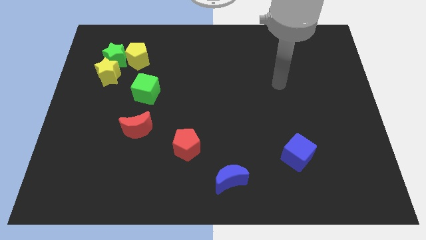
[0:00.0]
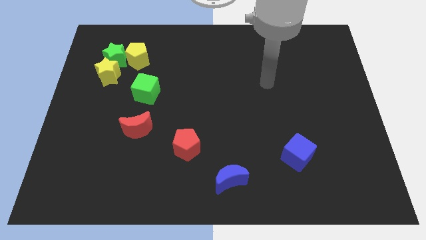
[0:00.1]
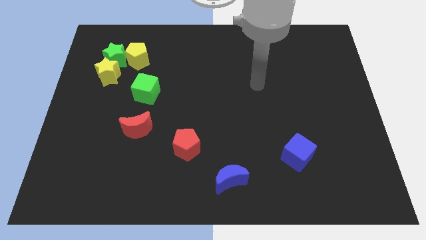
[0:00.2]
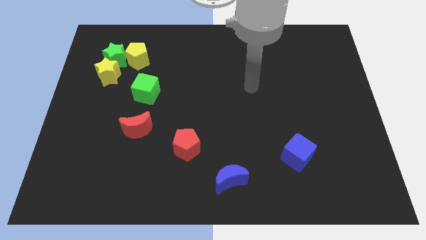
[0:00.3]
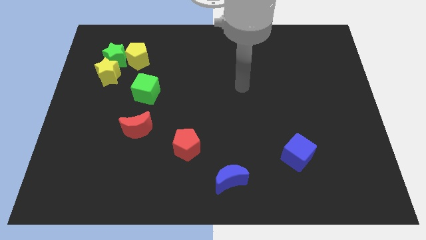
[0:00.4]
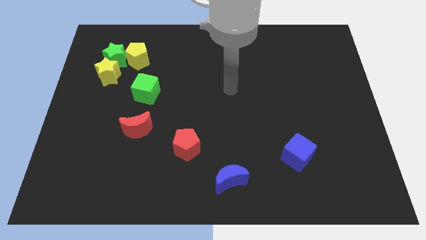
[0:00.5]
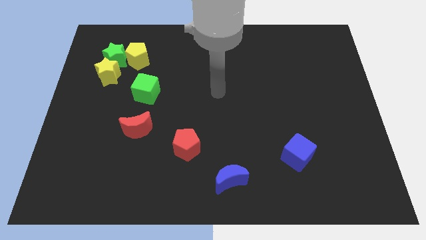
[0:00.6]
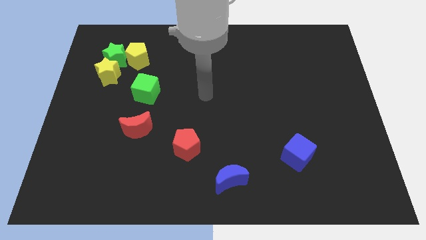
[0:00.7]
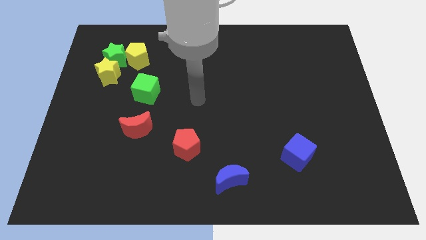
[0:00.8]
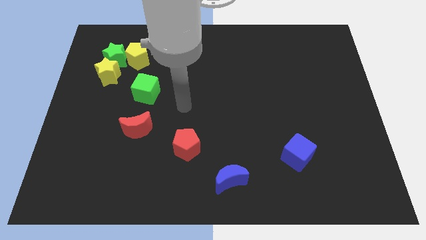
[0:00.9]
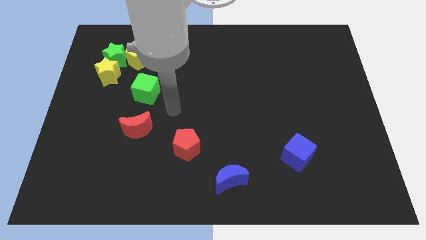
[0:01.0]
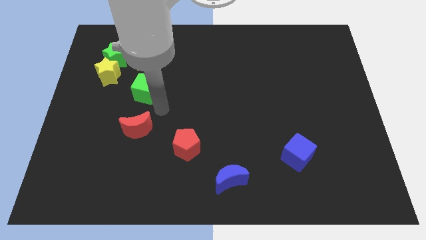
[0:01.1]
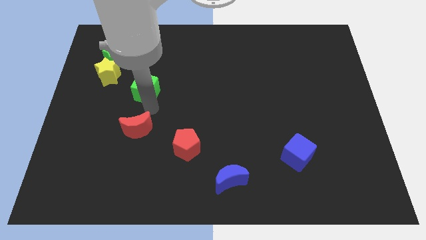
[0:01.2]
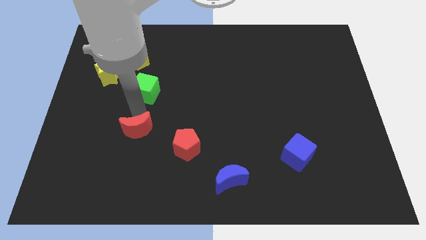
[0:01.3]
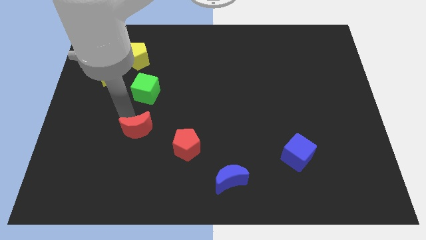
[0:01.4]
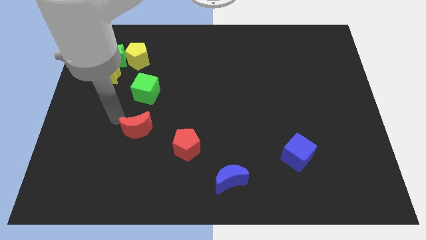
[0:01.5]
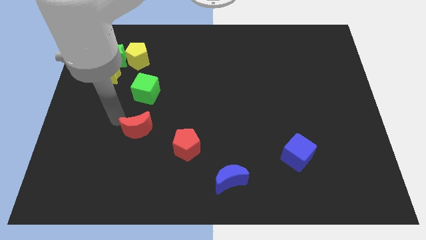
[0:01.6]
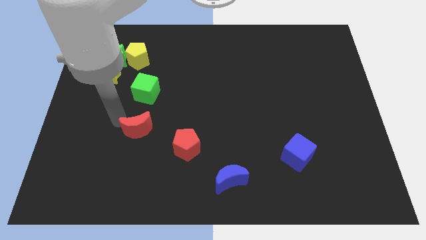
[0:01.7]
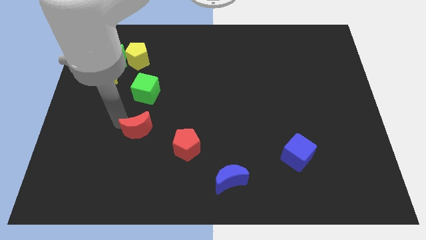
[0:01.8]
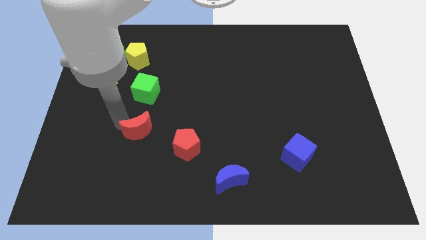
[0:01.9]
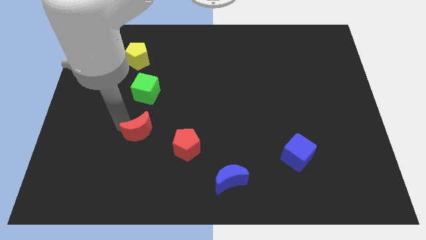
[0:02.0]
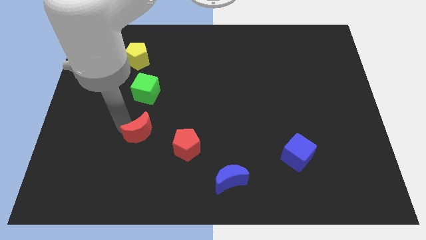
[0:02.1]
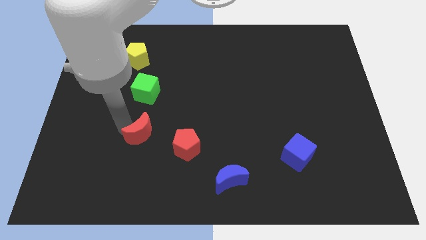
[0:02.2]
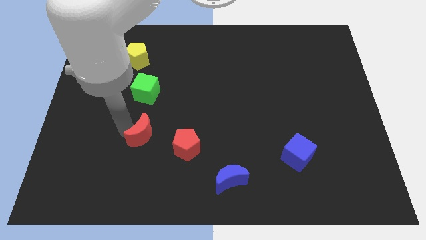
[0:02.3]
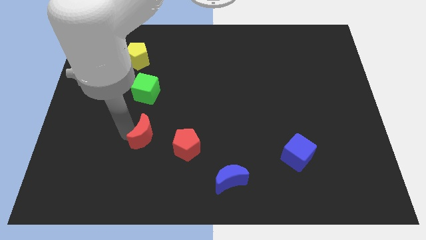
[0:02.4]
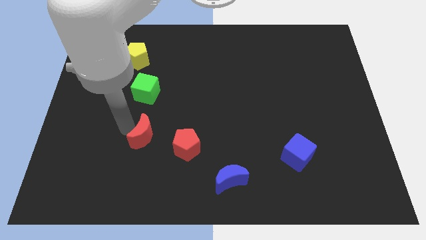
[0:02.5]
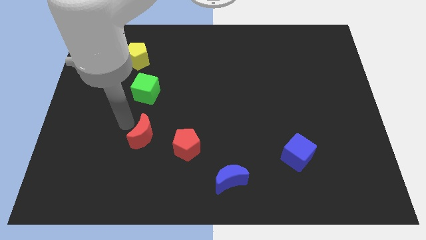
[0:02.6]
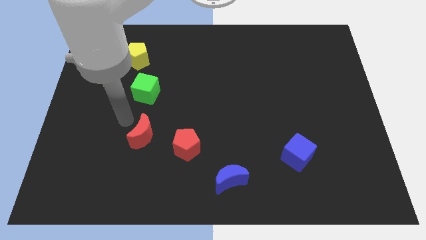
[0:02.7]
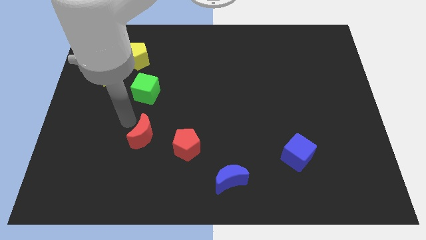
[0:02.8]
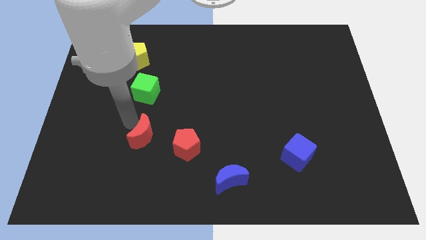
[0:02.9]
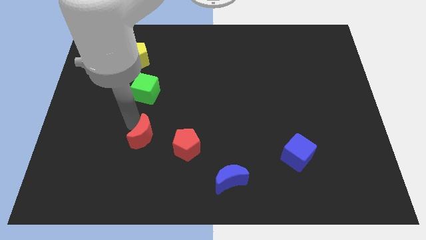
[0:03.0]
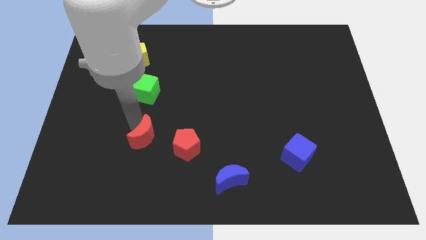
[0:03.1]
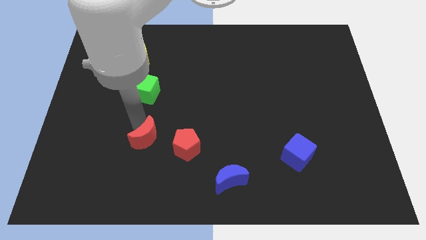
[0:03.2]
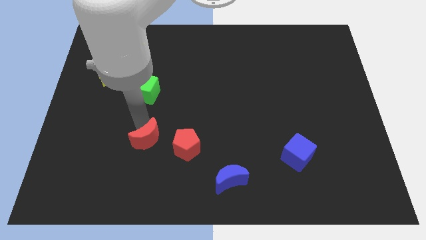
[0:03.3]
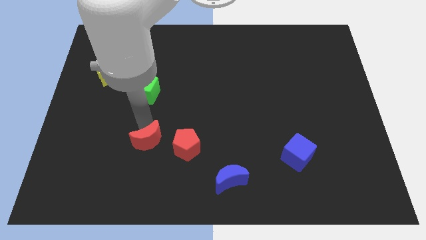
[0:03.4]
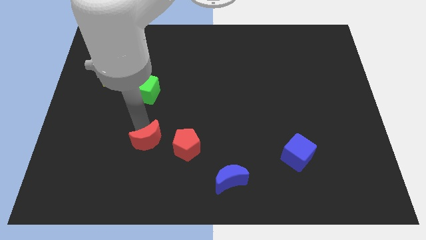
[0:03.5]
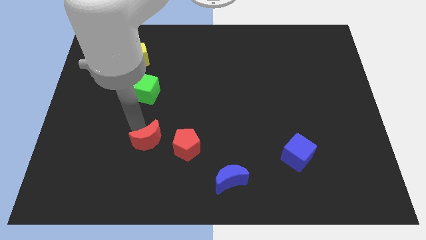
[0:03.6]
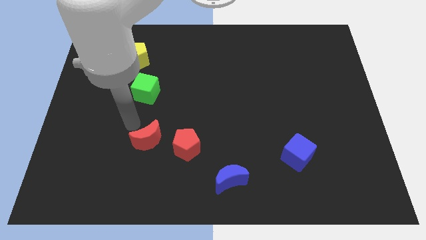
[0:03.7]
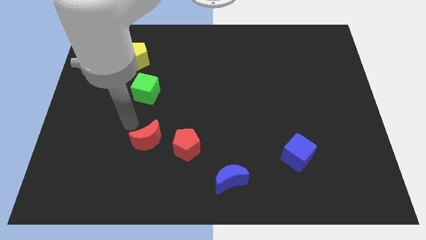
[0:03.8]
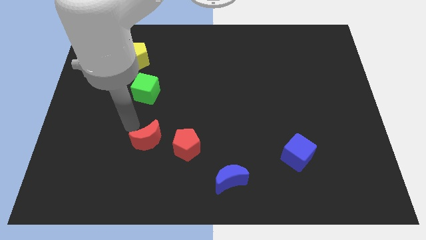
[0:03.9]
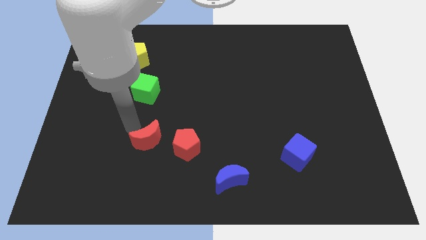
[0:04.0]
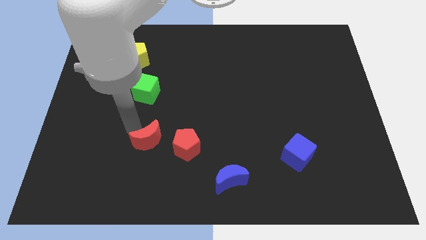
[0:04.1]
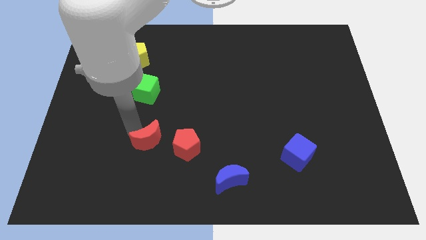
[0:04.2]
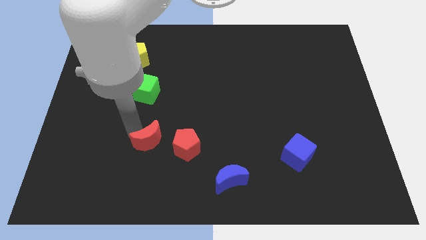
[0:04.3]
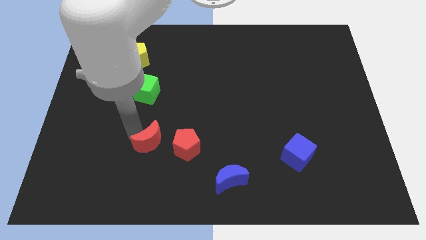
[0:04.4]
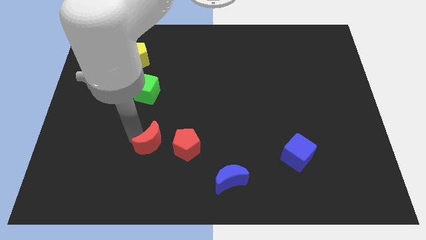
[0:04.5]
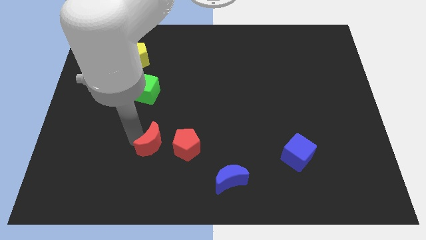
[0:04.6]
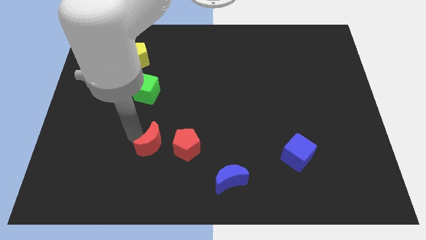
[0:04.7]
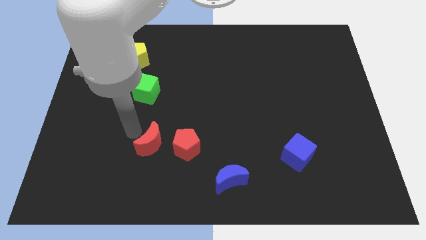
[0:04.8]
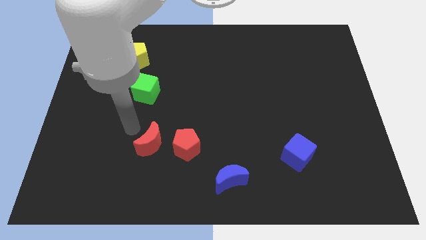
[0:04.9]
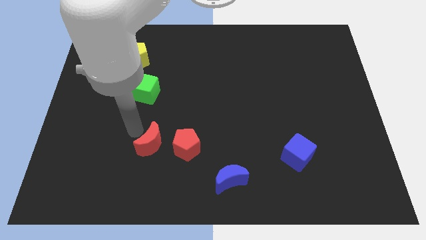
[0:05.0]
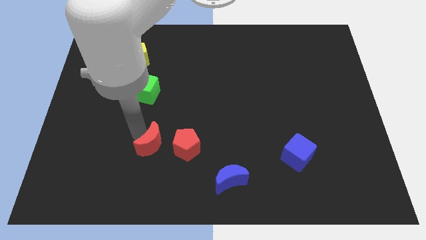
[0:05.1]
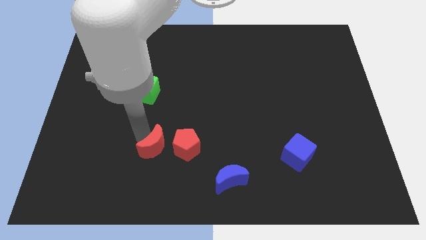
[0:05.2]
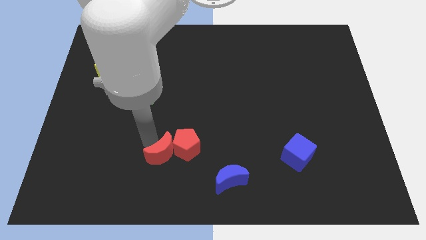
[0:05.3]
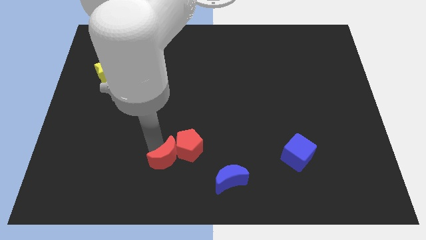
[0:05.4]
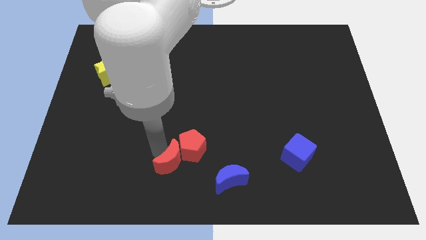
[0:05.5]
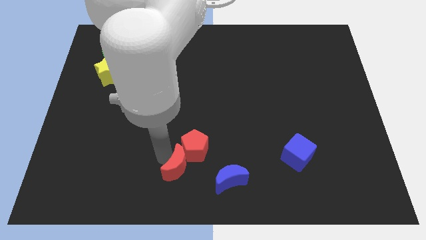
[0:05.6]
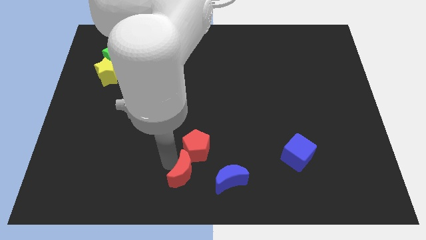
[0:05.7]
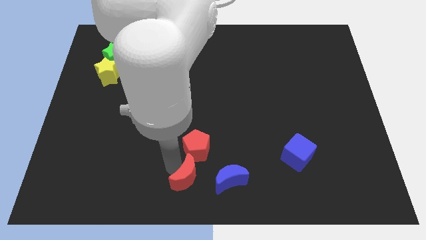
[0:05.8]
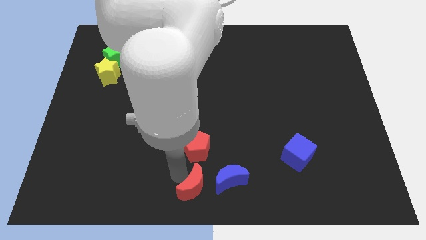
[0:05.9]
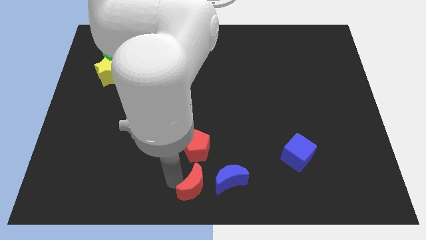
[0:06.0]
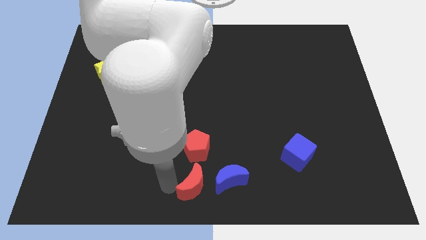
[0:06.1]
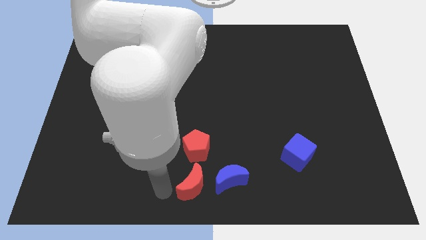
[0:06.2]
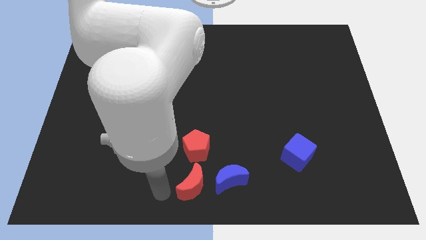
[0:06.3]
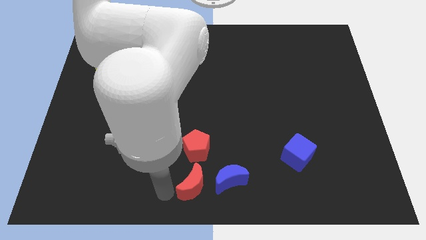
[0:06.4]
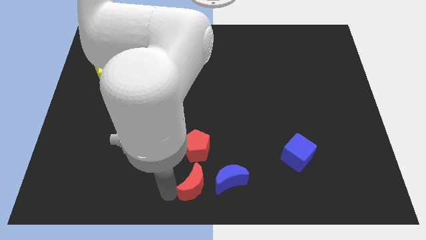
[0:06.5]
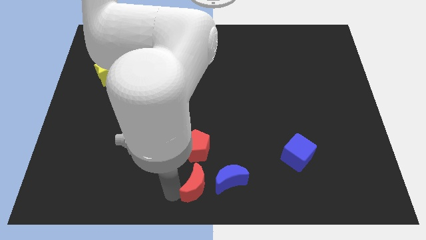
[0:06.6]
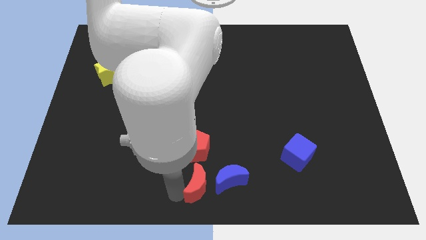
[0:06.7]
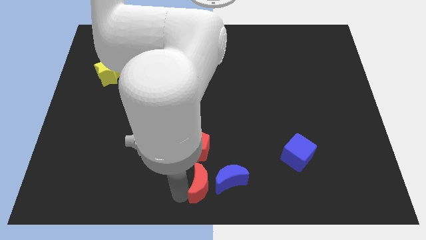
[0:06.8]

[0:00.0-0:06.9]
move the red moon close to the blue moon
